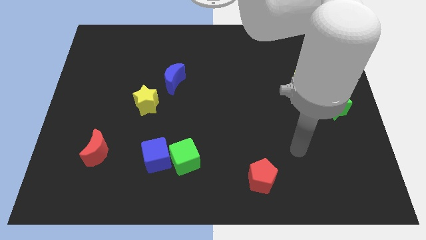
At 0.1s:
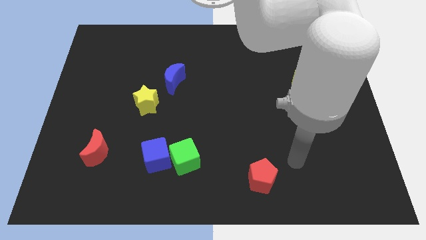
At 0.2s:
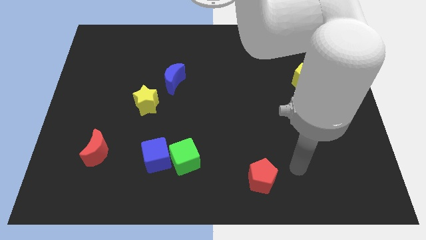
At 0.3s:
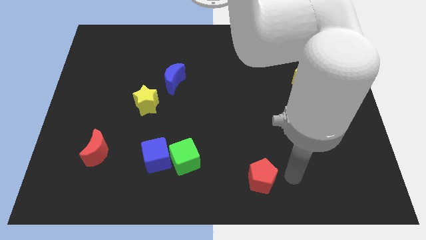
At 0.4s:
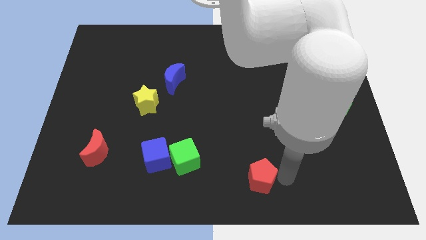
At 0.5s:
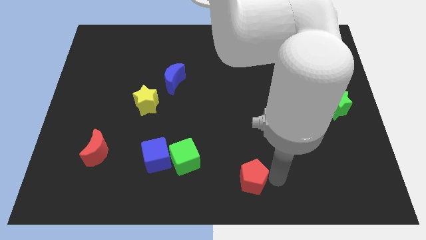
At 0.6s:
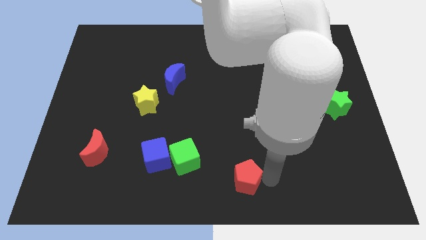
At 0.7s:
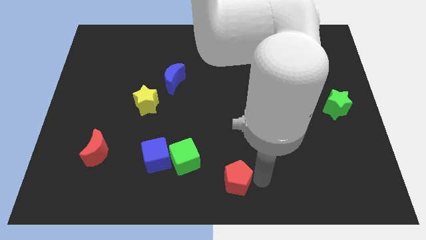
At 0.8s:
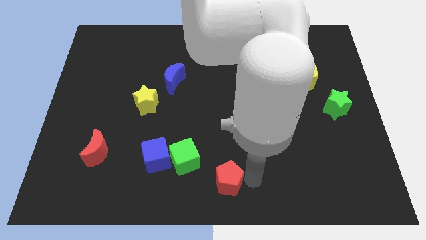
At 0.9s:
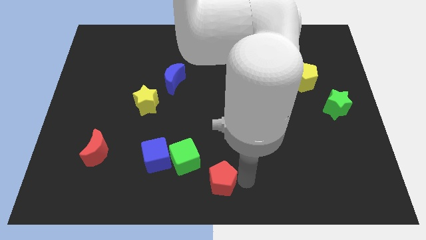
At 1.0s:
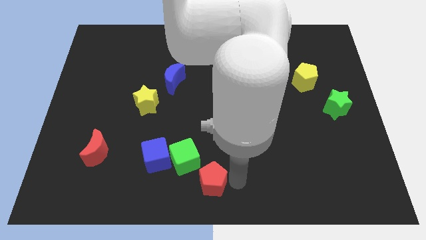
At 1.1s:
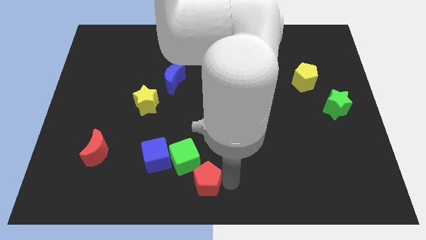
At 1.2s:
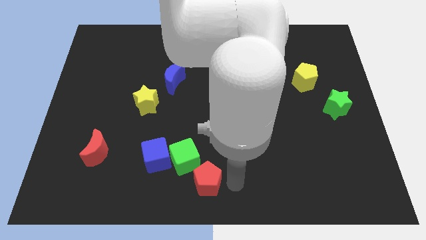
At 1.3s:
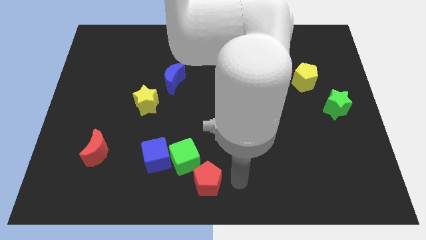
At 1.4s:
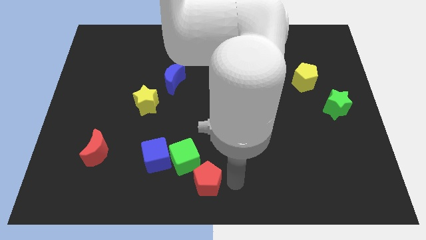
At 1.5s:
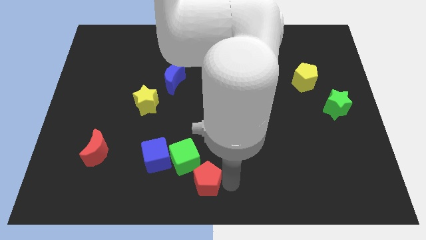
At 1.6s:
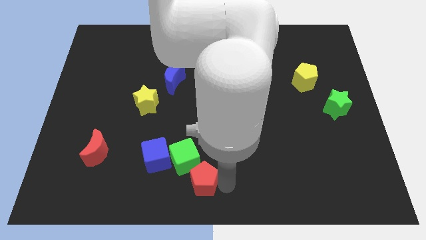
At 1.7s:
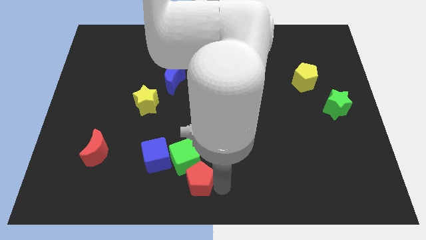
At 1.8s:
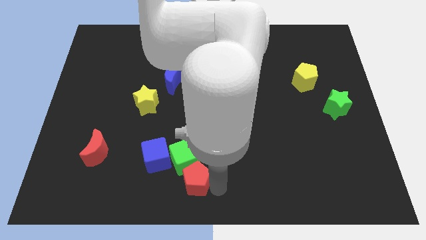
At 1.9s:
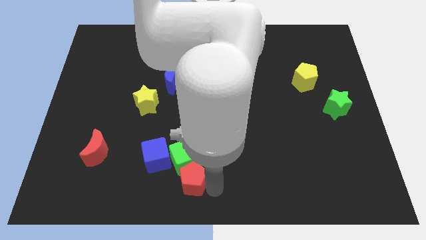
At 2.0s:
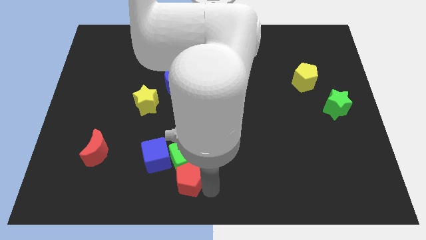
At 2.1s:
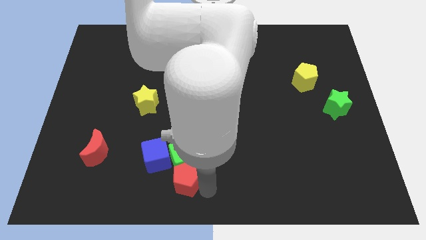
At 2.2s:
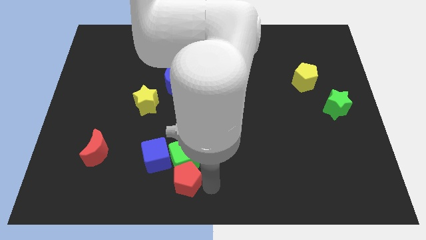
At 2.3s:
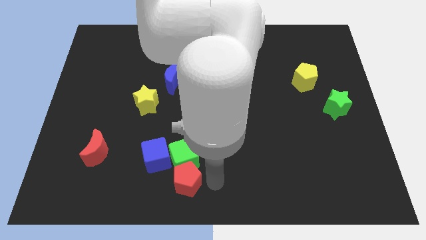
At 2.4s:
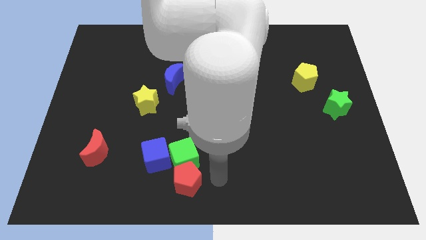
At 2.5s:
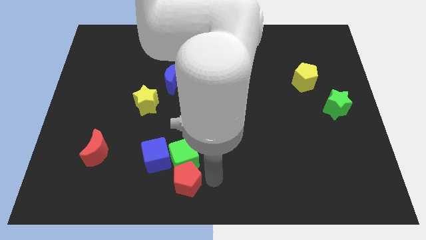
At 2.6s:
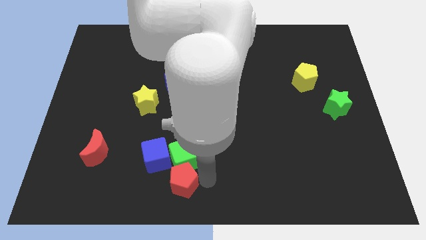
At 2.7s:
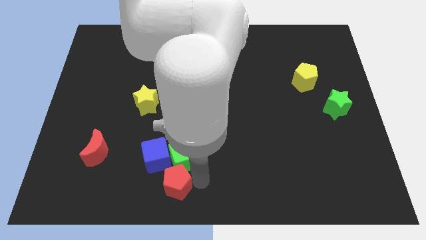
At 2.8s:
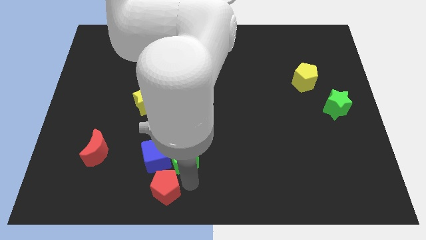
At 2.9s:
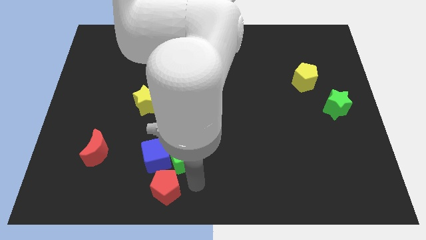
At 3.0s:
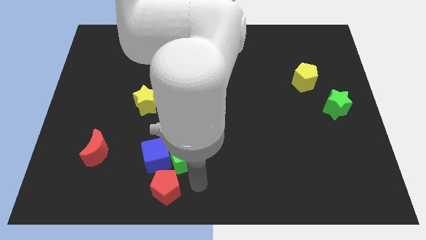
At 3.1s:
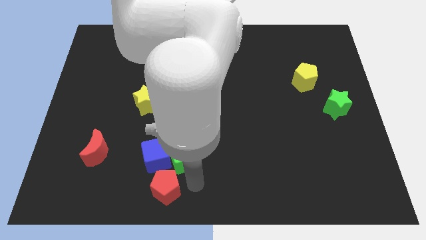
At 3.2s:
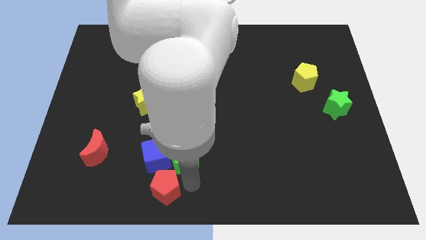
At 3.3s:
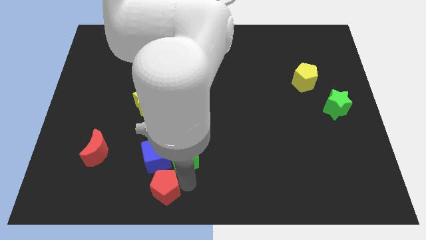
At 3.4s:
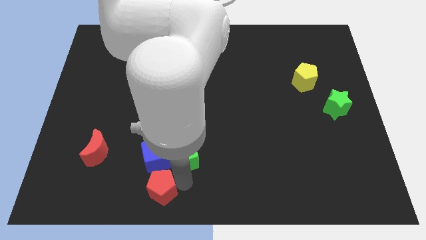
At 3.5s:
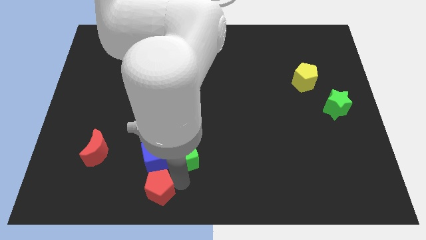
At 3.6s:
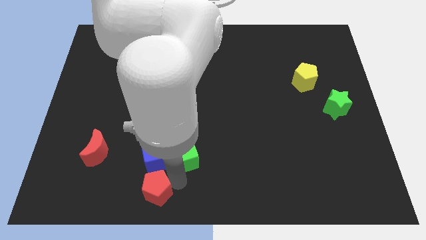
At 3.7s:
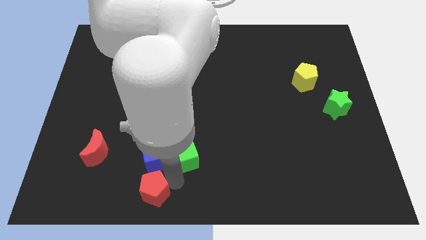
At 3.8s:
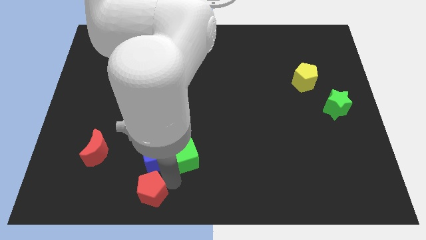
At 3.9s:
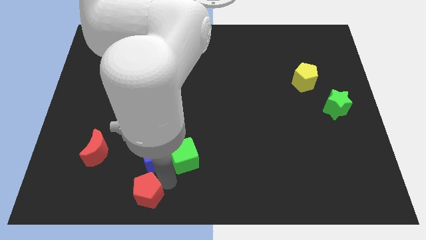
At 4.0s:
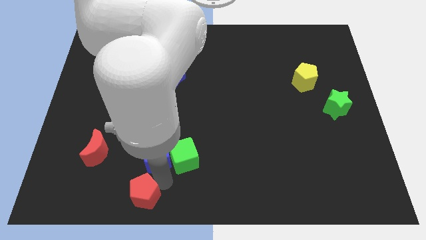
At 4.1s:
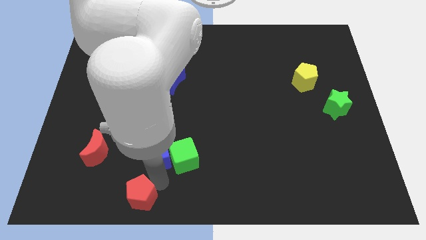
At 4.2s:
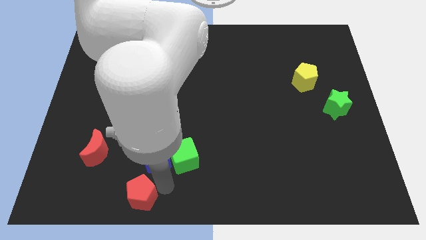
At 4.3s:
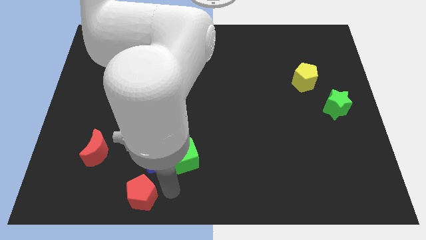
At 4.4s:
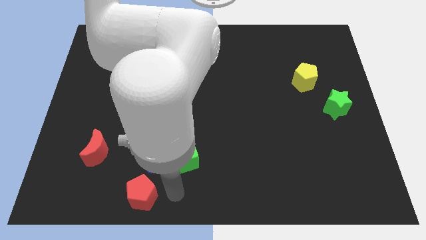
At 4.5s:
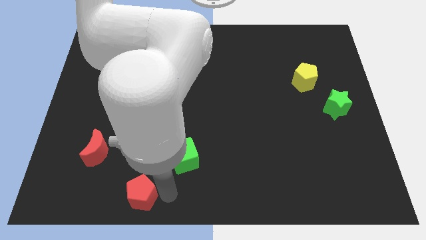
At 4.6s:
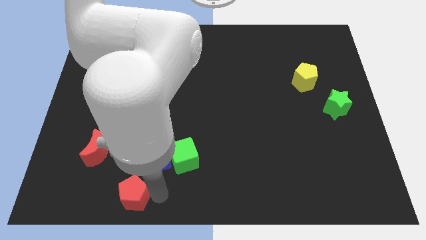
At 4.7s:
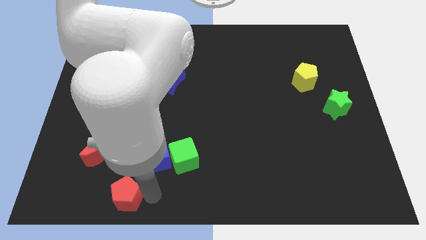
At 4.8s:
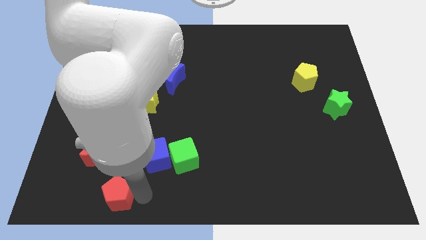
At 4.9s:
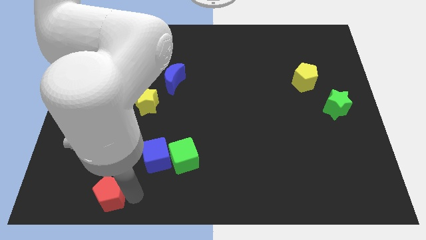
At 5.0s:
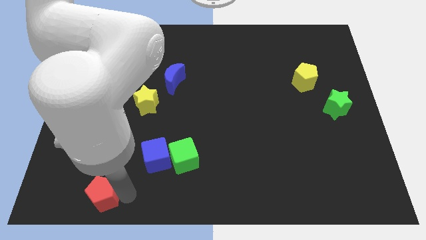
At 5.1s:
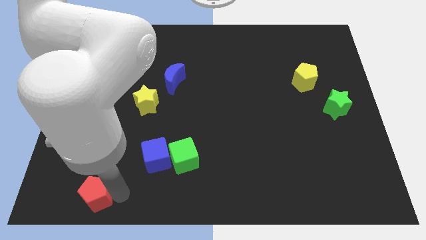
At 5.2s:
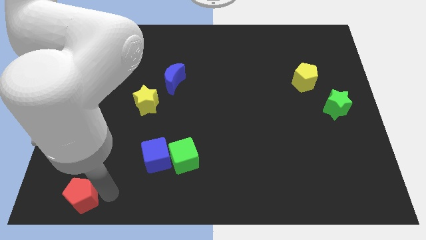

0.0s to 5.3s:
slide the red pentagon to the lower left corner

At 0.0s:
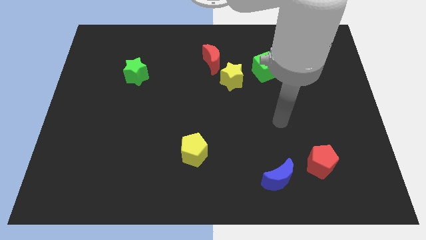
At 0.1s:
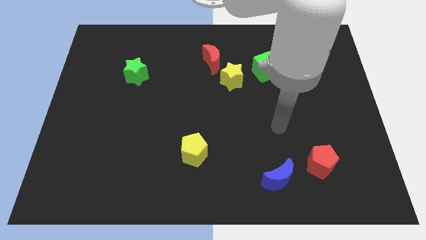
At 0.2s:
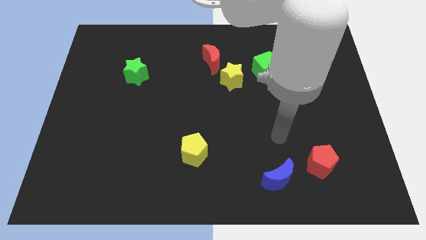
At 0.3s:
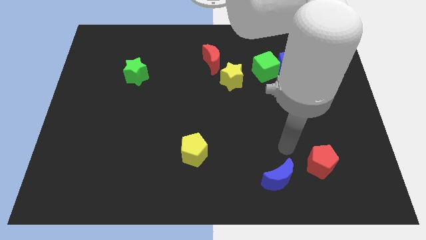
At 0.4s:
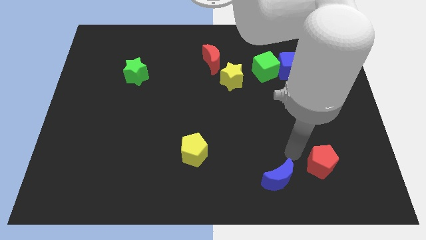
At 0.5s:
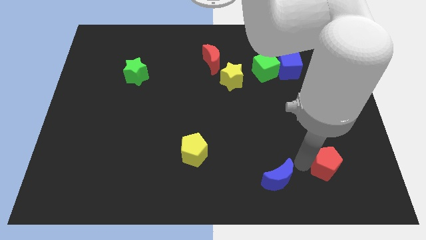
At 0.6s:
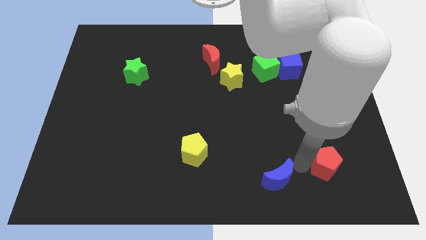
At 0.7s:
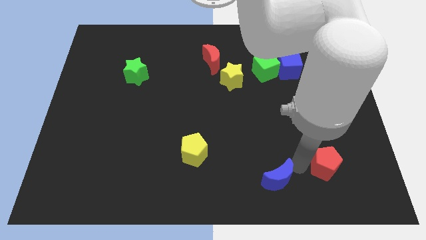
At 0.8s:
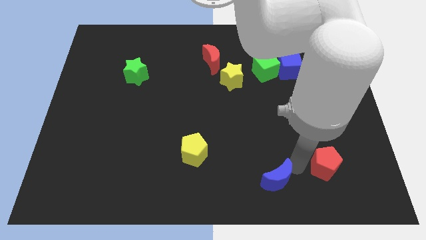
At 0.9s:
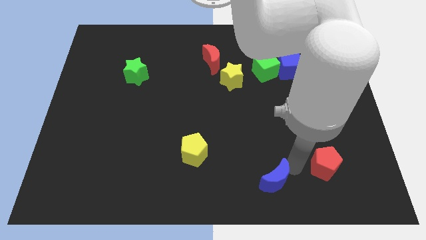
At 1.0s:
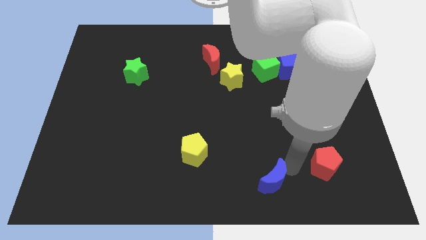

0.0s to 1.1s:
push the blue moon to the bottom

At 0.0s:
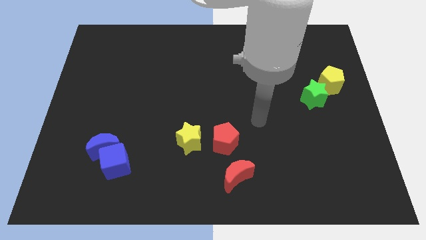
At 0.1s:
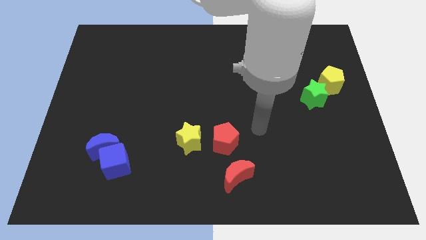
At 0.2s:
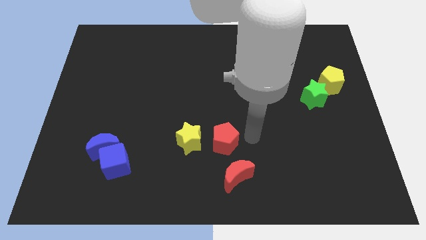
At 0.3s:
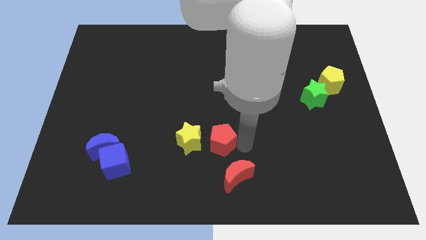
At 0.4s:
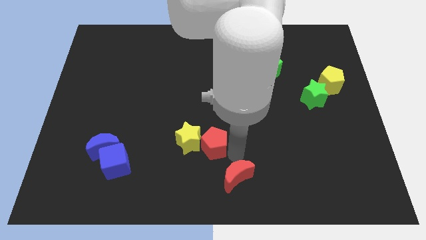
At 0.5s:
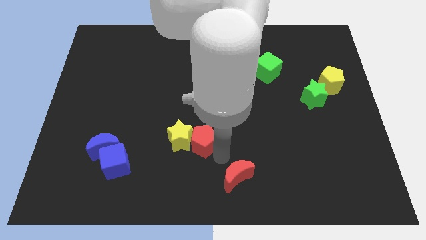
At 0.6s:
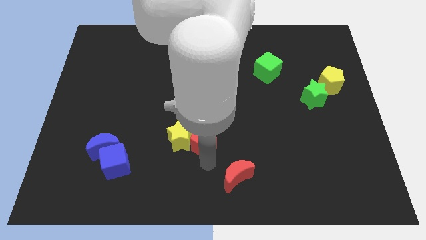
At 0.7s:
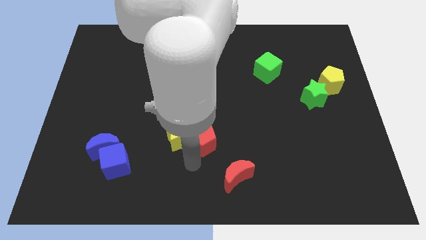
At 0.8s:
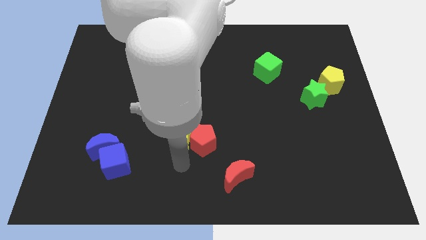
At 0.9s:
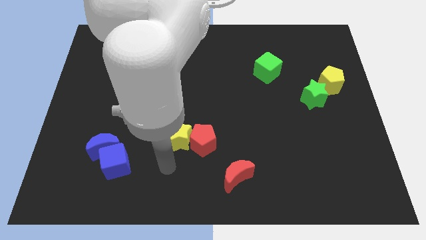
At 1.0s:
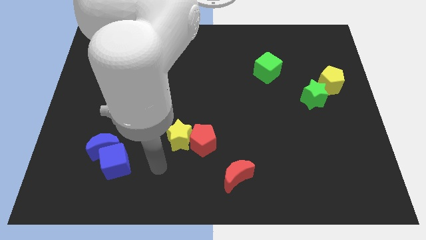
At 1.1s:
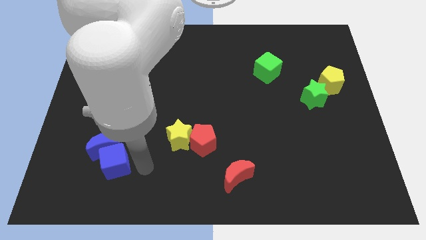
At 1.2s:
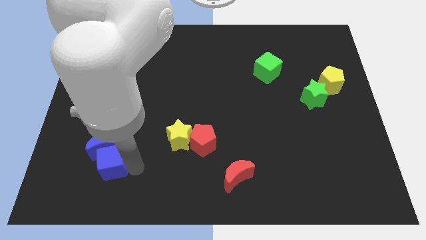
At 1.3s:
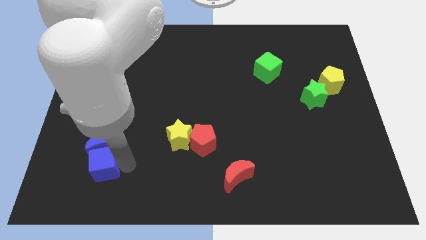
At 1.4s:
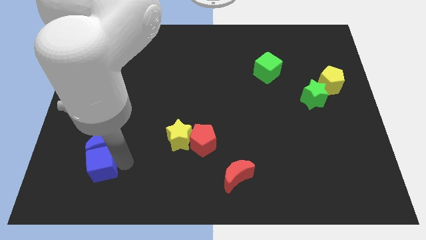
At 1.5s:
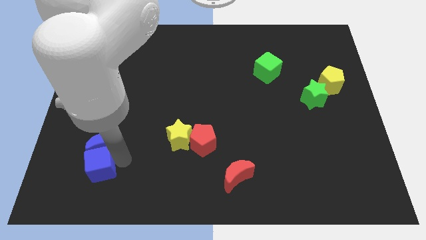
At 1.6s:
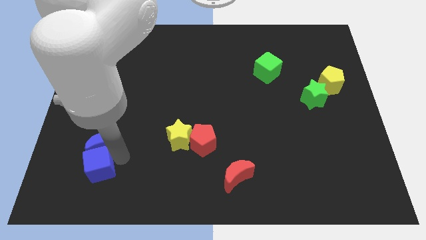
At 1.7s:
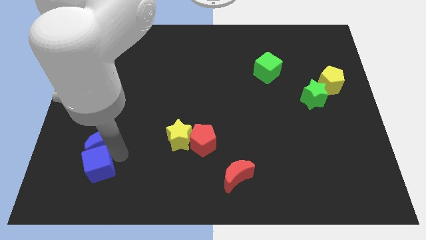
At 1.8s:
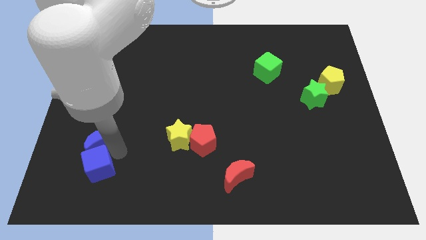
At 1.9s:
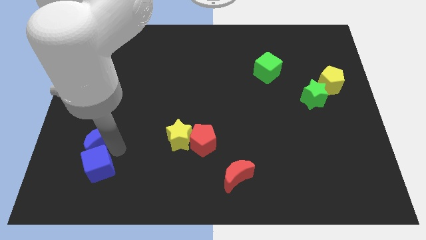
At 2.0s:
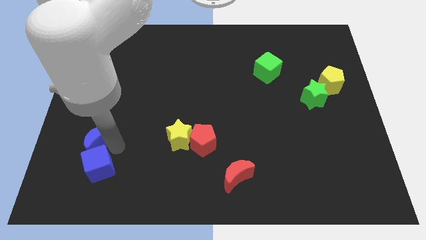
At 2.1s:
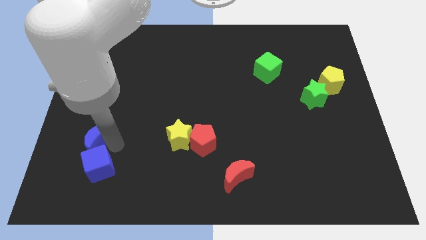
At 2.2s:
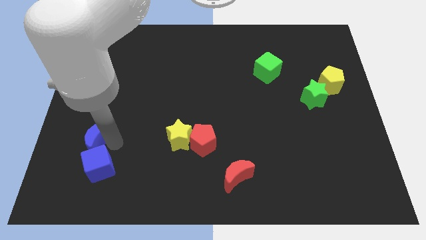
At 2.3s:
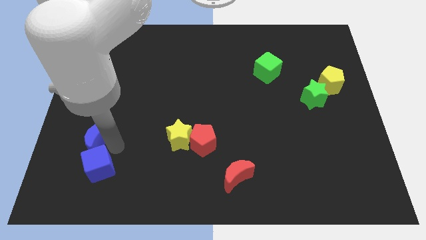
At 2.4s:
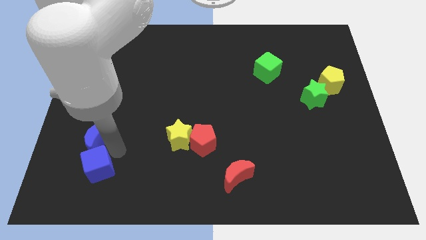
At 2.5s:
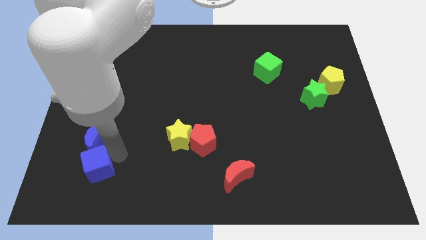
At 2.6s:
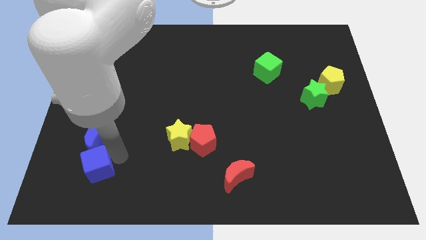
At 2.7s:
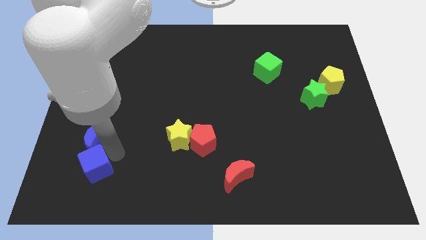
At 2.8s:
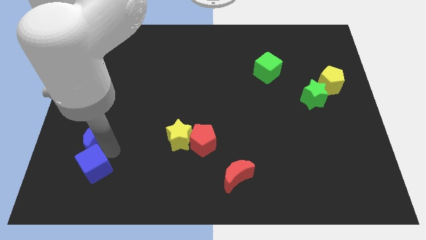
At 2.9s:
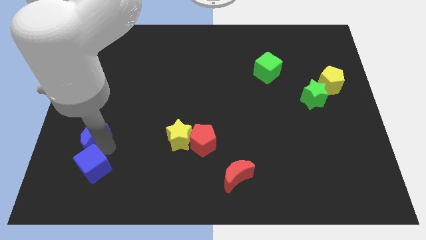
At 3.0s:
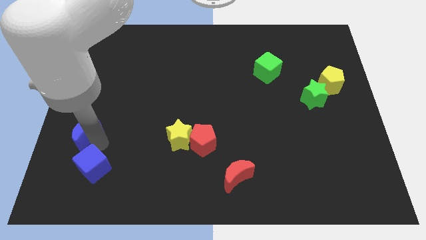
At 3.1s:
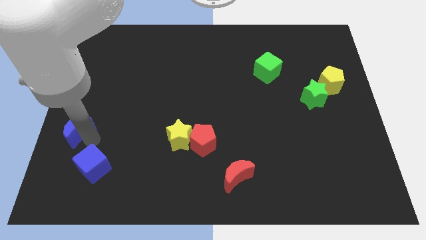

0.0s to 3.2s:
put the blue moon to the left side of the board
